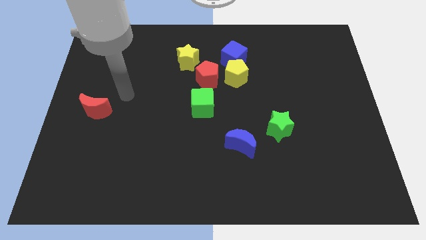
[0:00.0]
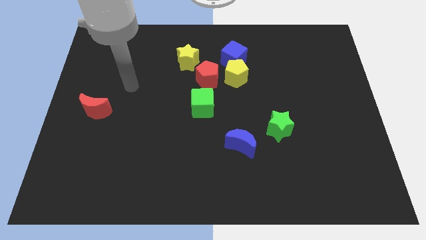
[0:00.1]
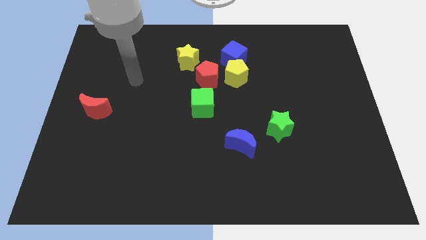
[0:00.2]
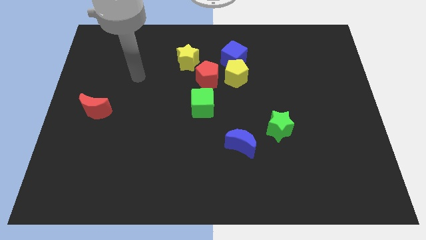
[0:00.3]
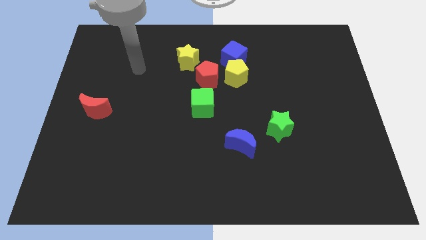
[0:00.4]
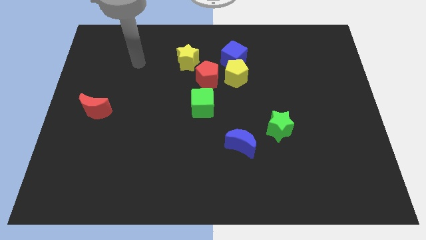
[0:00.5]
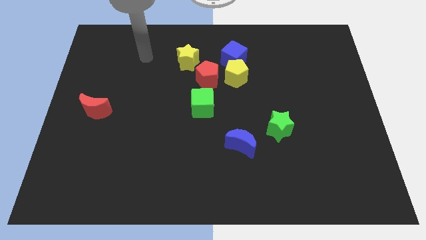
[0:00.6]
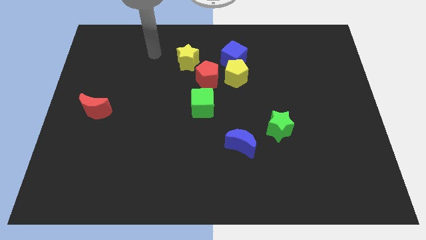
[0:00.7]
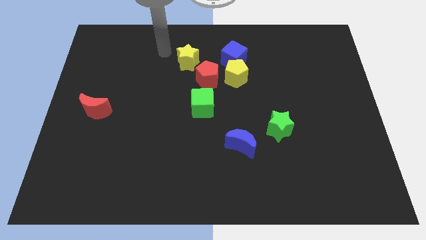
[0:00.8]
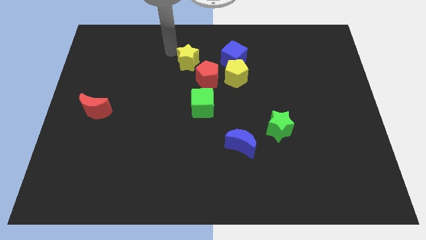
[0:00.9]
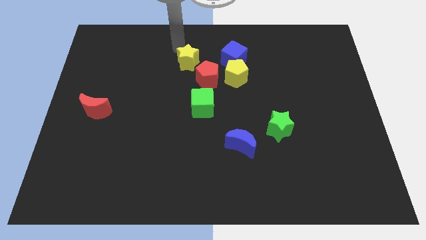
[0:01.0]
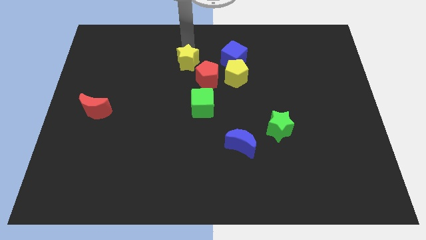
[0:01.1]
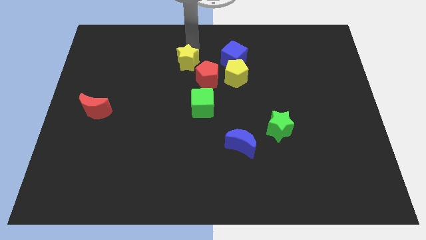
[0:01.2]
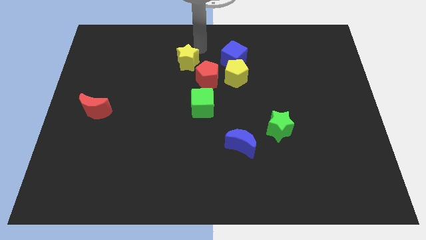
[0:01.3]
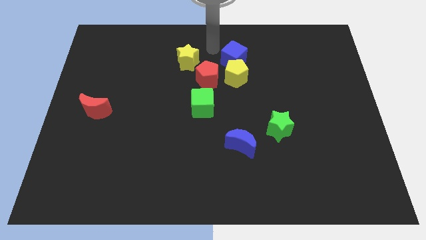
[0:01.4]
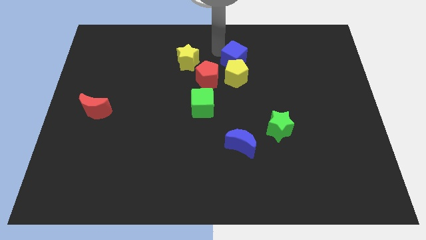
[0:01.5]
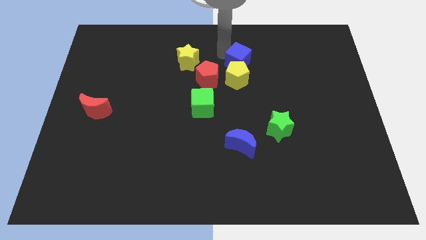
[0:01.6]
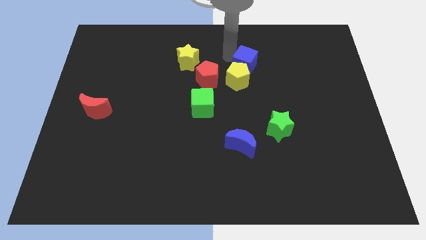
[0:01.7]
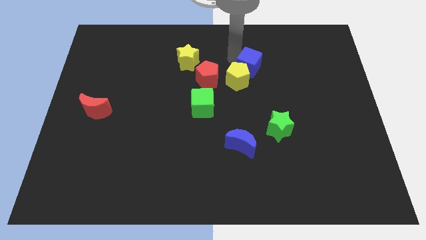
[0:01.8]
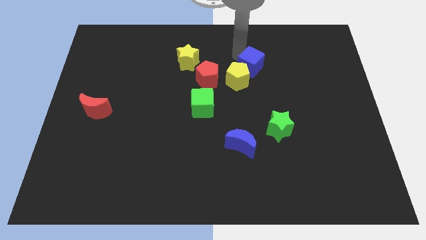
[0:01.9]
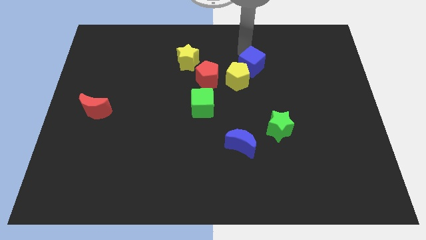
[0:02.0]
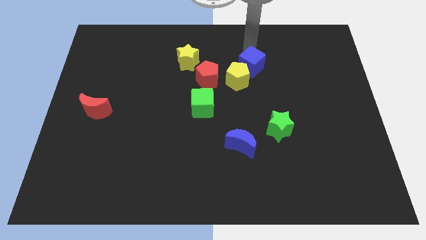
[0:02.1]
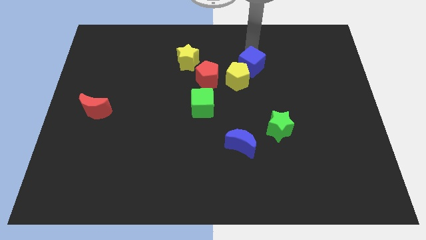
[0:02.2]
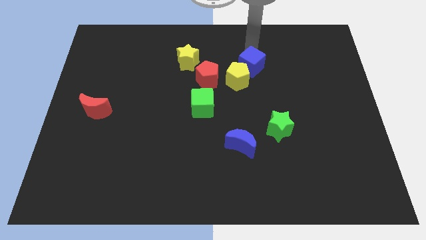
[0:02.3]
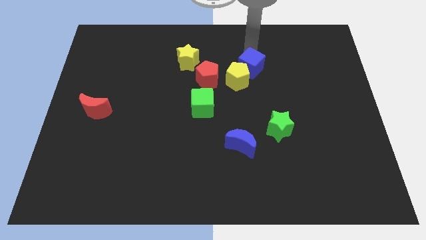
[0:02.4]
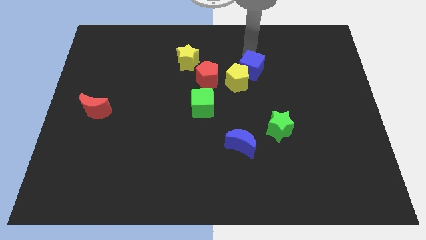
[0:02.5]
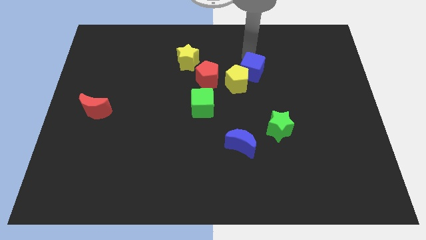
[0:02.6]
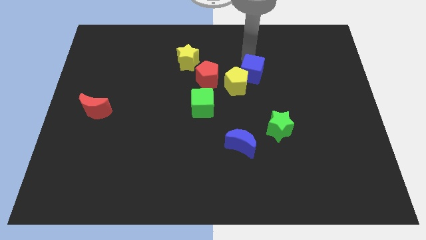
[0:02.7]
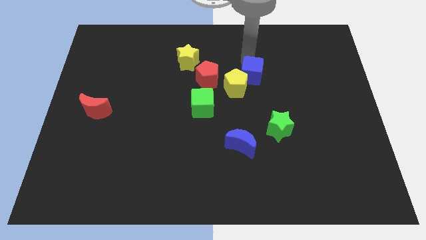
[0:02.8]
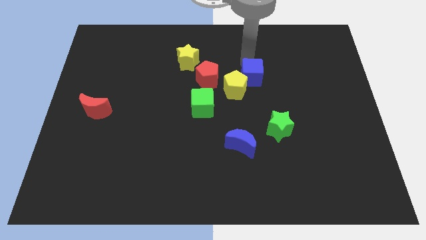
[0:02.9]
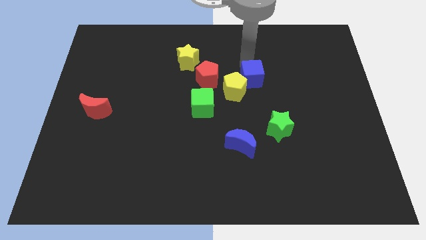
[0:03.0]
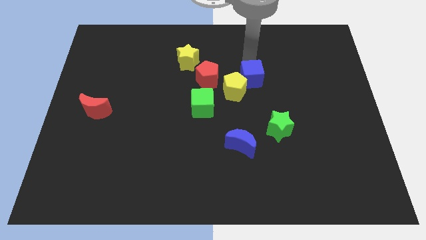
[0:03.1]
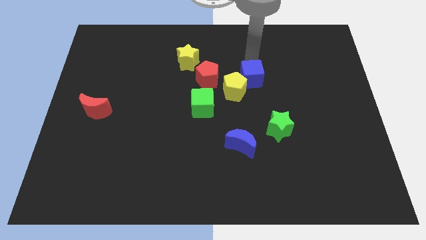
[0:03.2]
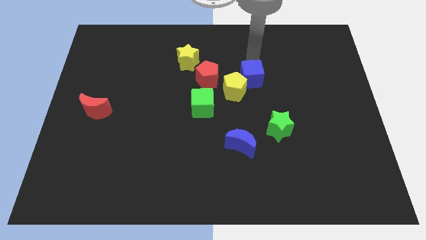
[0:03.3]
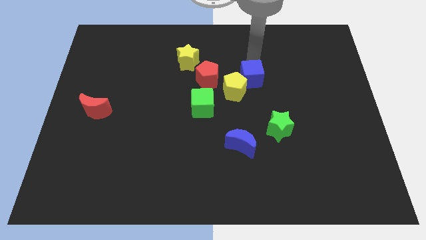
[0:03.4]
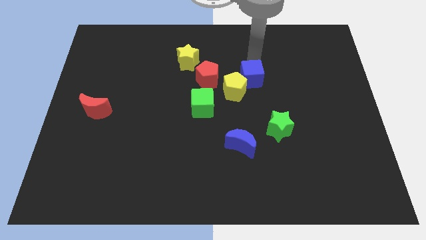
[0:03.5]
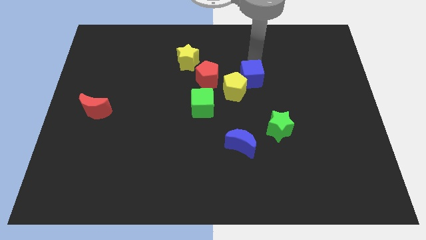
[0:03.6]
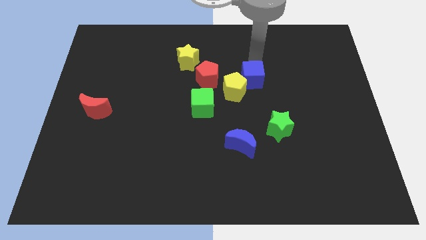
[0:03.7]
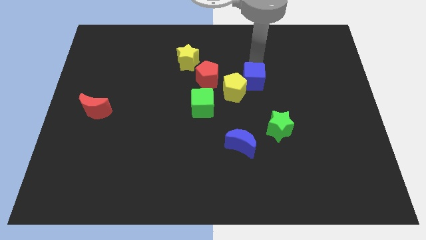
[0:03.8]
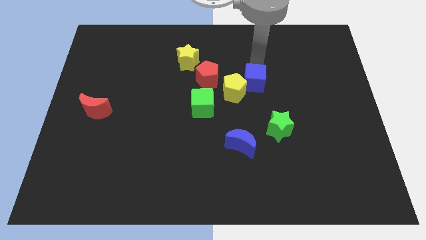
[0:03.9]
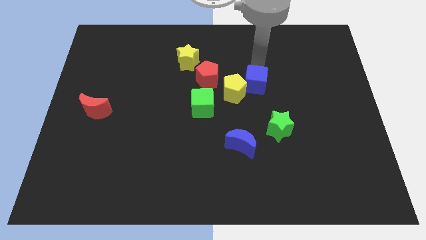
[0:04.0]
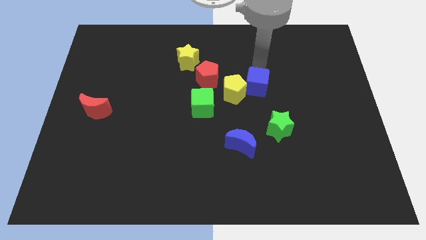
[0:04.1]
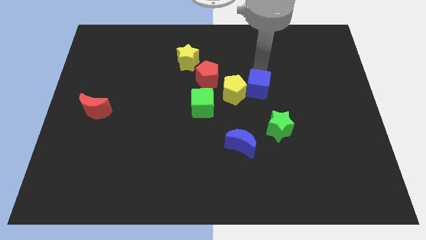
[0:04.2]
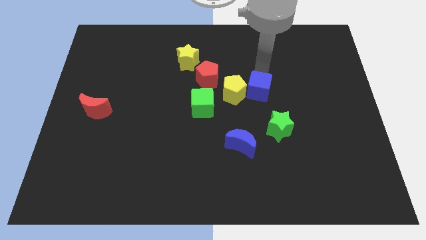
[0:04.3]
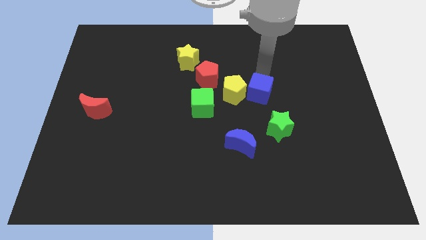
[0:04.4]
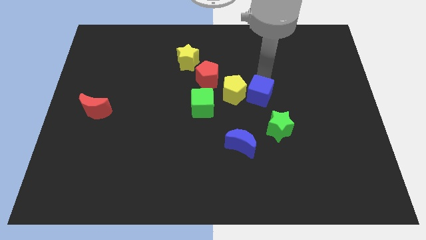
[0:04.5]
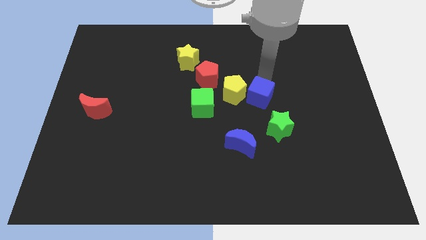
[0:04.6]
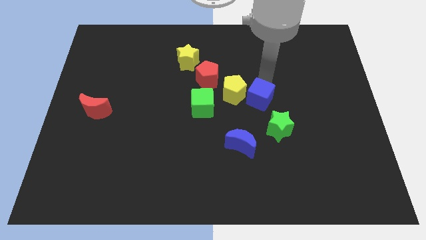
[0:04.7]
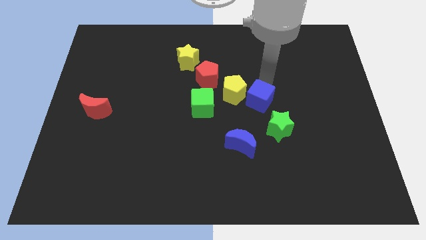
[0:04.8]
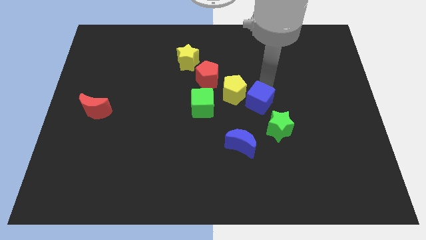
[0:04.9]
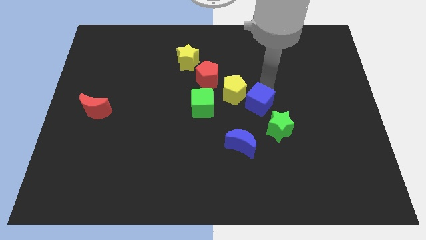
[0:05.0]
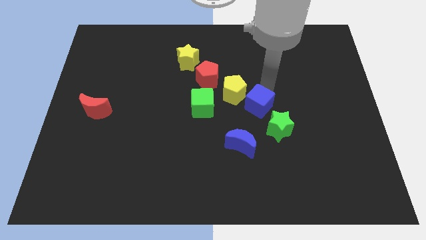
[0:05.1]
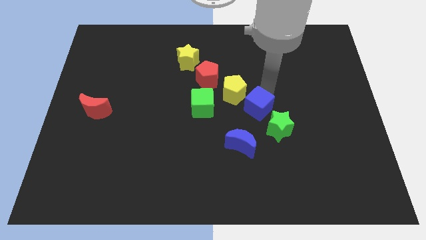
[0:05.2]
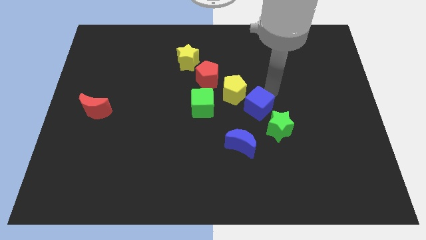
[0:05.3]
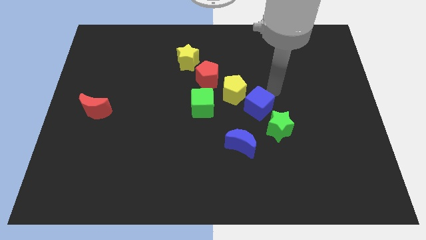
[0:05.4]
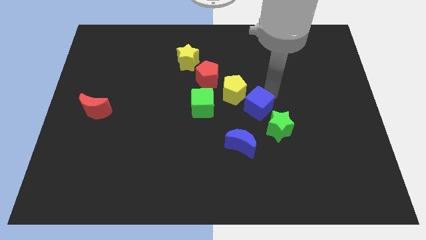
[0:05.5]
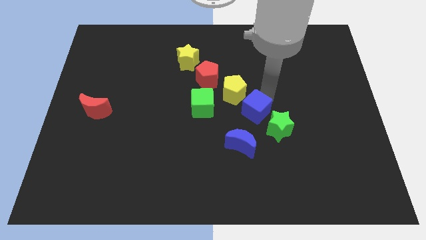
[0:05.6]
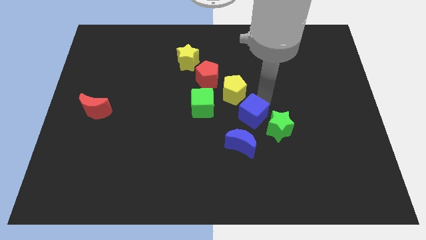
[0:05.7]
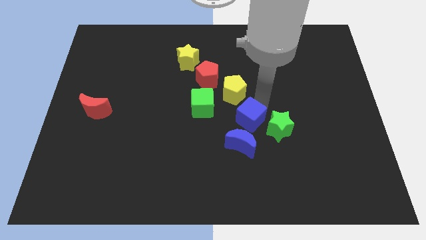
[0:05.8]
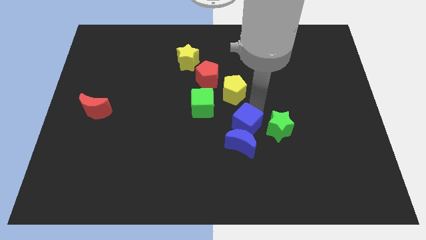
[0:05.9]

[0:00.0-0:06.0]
put the blue cube close to the blue moon
